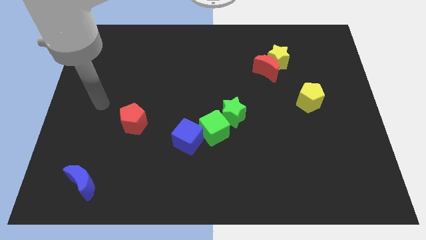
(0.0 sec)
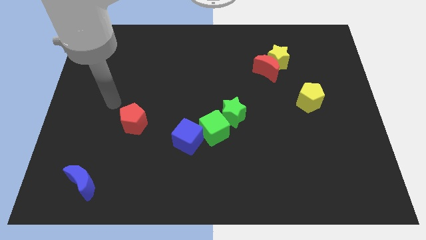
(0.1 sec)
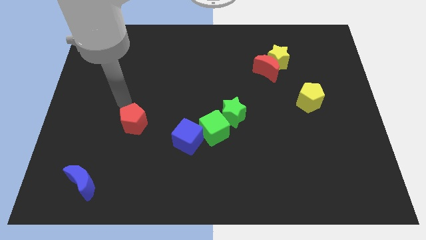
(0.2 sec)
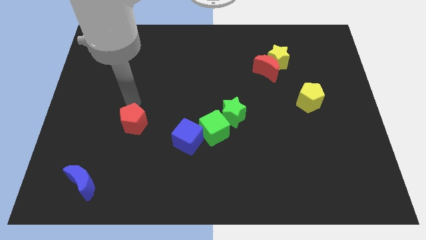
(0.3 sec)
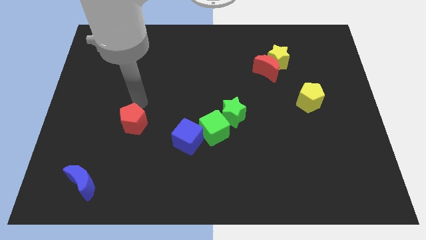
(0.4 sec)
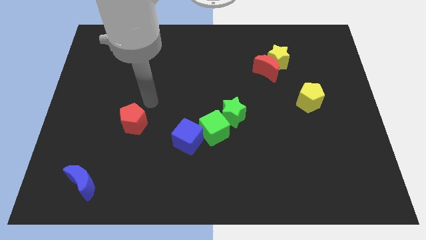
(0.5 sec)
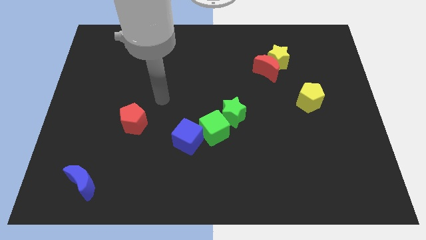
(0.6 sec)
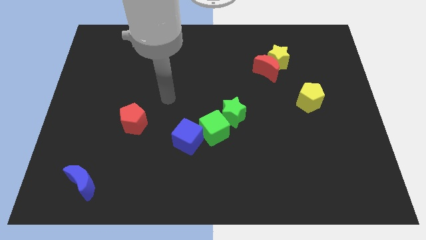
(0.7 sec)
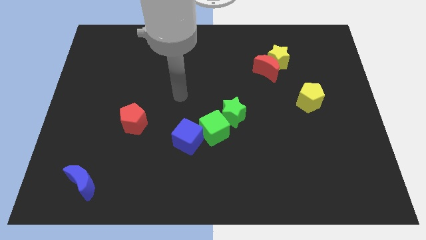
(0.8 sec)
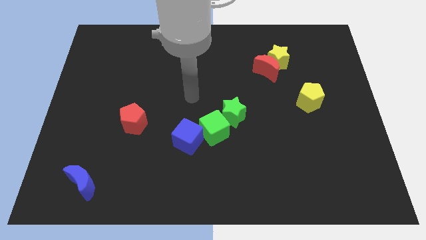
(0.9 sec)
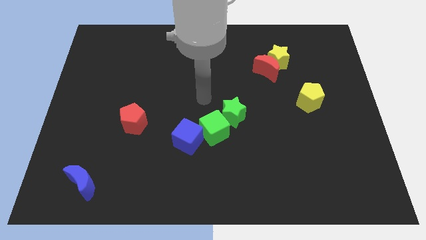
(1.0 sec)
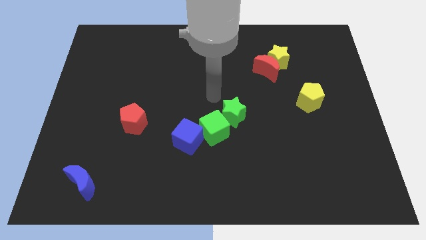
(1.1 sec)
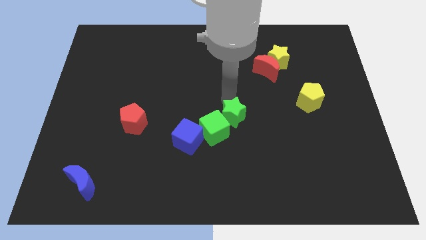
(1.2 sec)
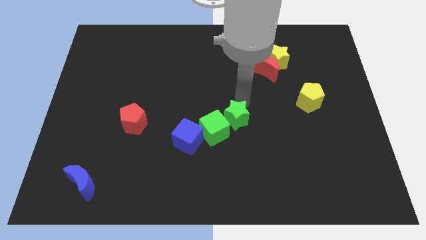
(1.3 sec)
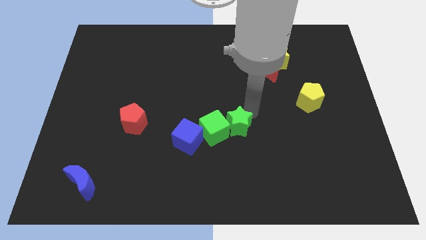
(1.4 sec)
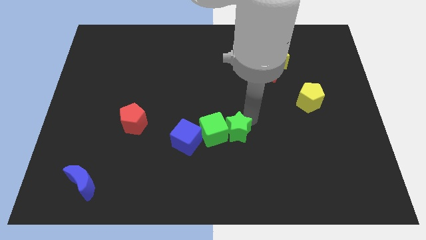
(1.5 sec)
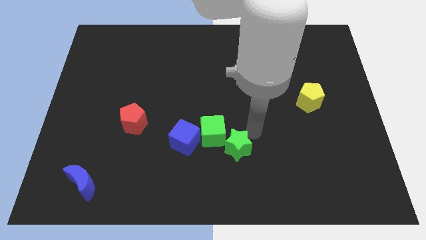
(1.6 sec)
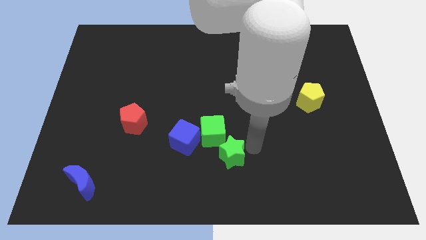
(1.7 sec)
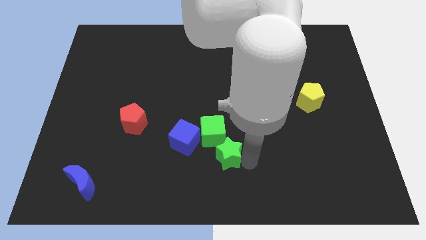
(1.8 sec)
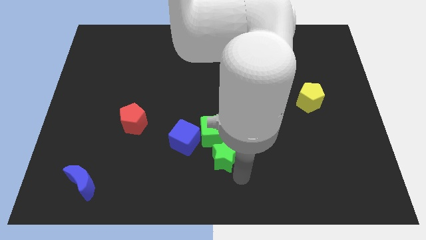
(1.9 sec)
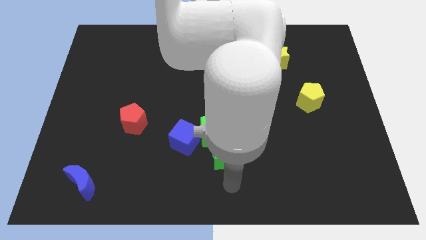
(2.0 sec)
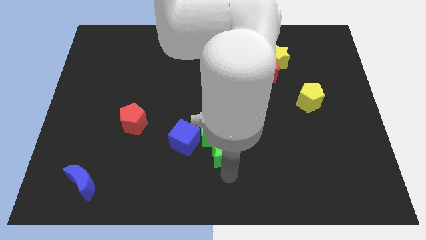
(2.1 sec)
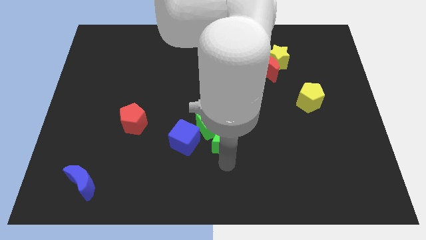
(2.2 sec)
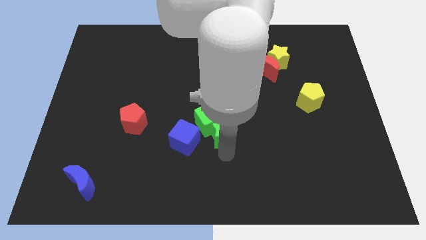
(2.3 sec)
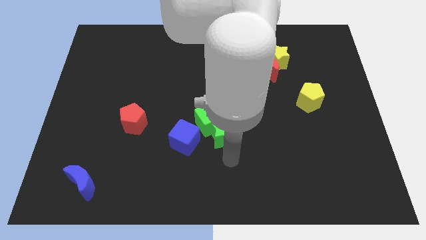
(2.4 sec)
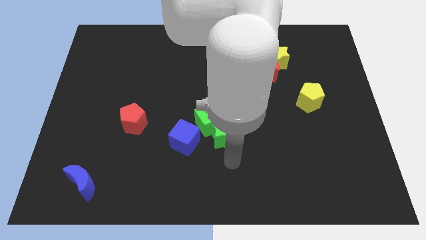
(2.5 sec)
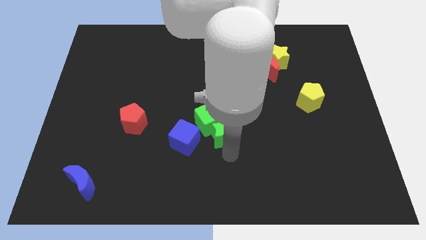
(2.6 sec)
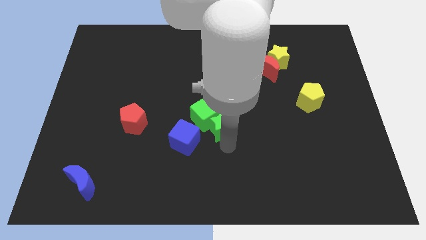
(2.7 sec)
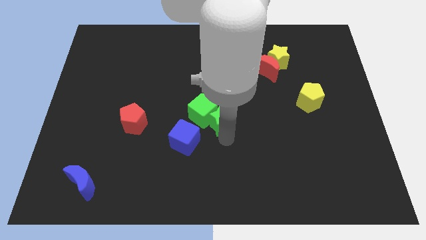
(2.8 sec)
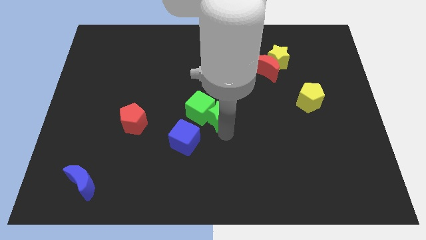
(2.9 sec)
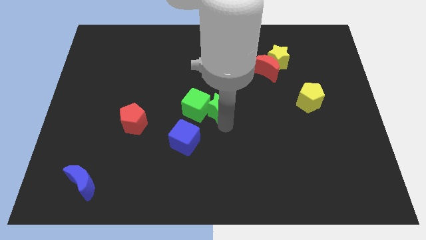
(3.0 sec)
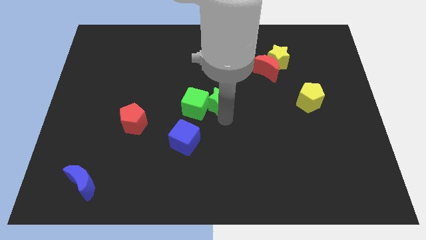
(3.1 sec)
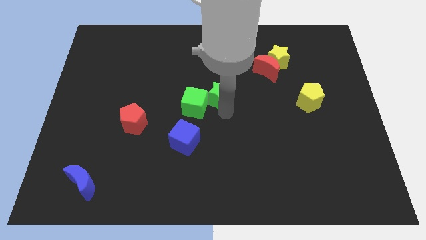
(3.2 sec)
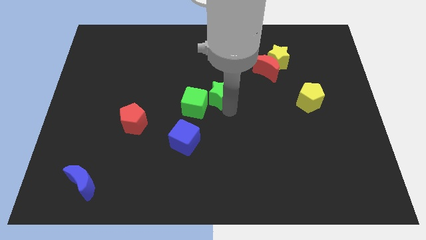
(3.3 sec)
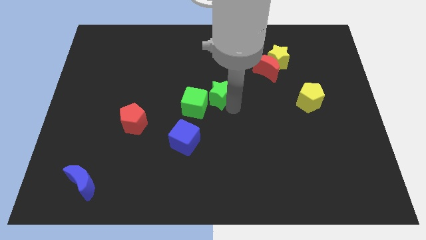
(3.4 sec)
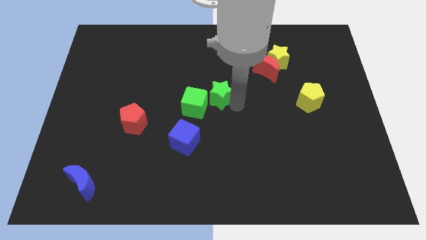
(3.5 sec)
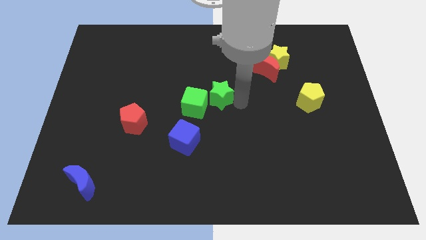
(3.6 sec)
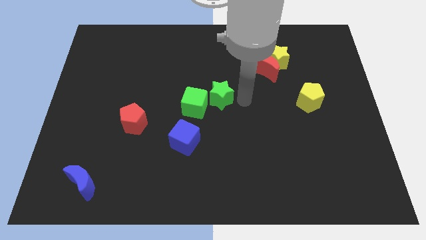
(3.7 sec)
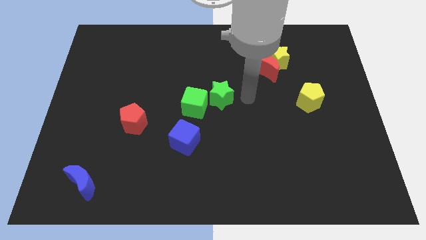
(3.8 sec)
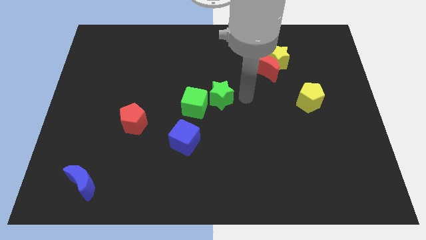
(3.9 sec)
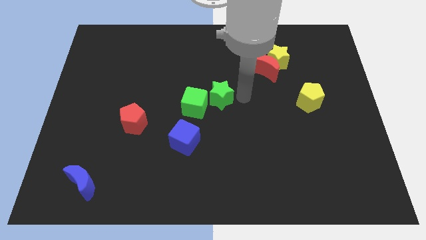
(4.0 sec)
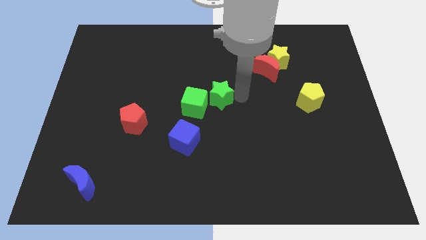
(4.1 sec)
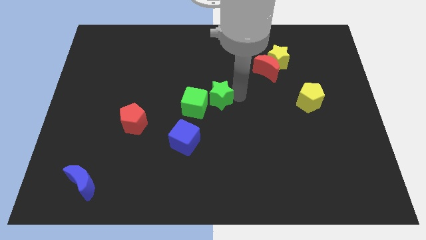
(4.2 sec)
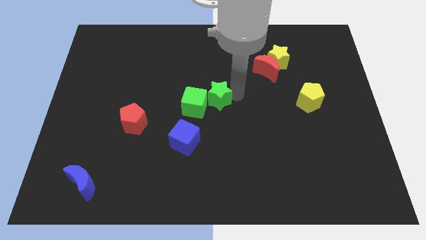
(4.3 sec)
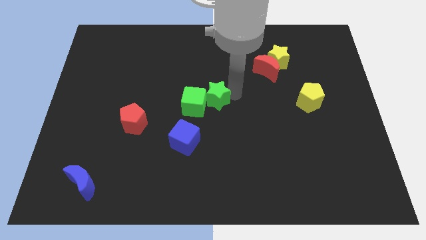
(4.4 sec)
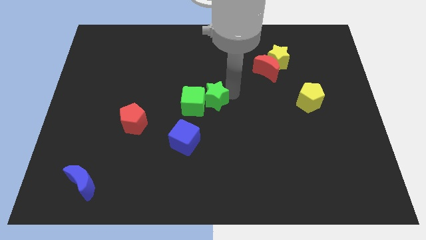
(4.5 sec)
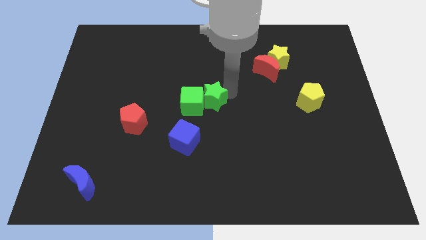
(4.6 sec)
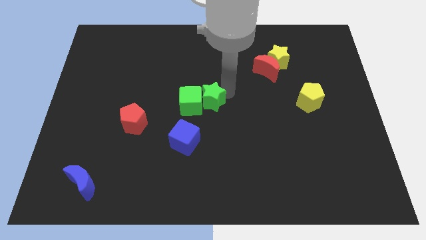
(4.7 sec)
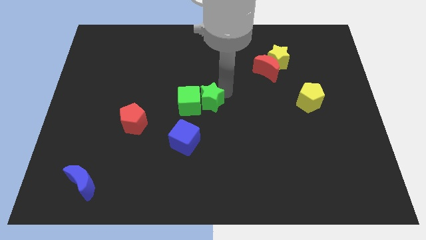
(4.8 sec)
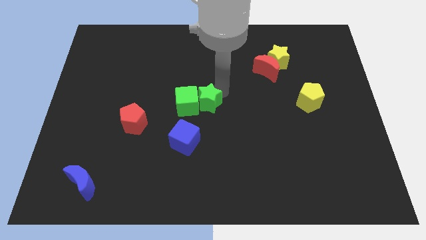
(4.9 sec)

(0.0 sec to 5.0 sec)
slide the green star up and then left slightly

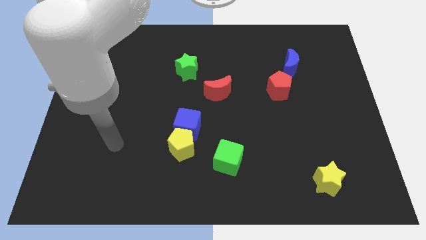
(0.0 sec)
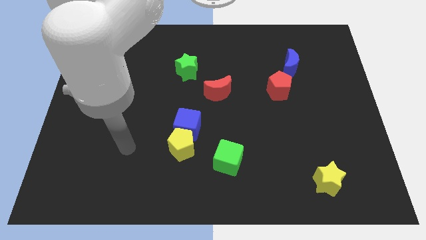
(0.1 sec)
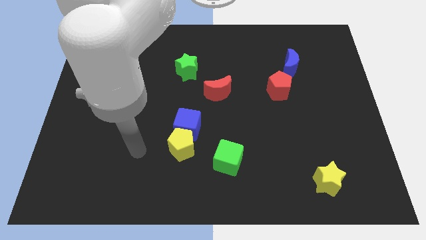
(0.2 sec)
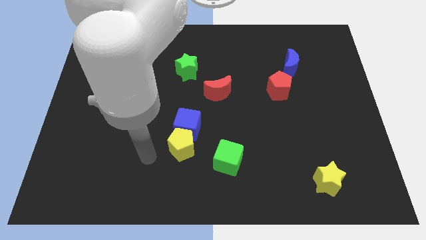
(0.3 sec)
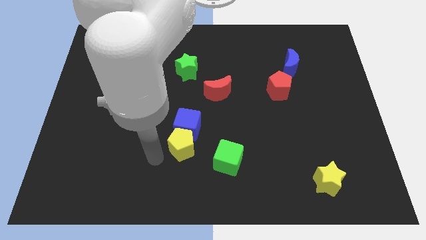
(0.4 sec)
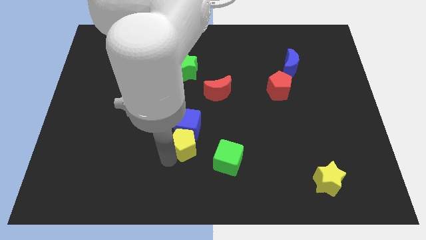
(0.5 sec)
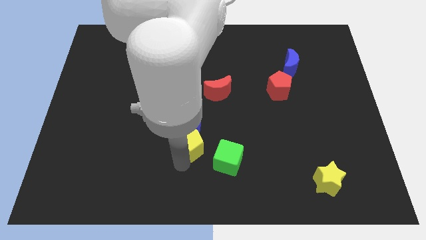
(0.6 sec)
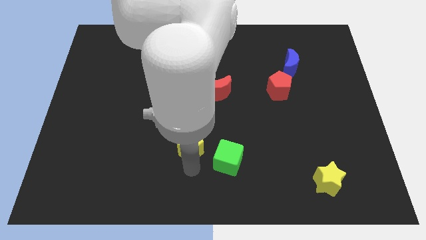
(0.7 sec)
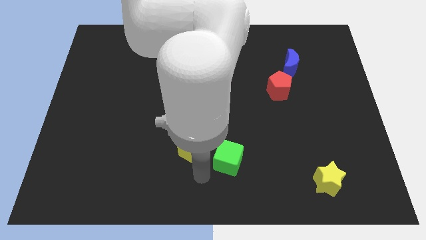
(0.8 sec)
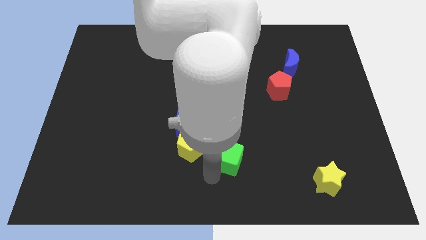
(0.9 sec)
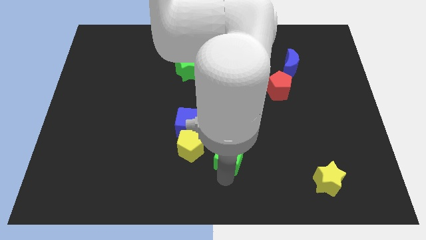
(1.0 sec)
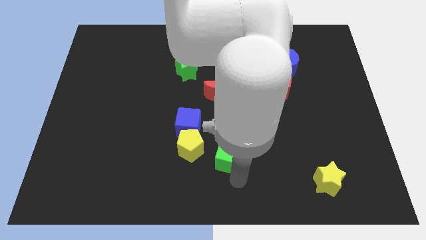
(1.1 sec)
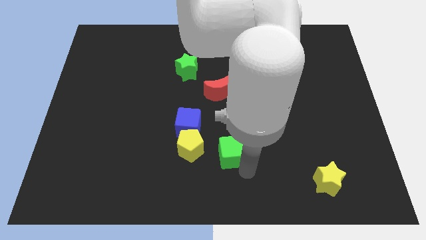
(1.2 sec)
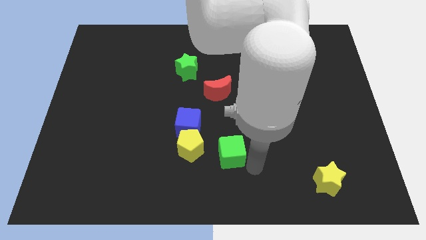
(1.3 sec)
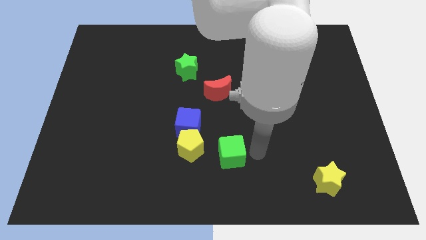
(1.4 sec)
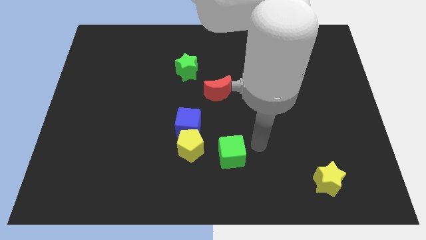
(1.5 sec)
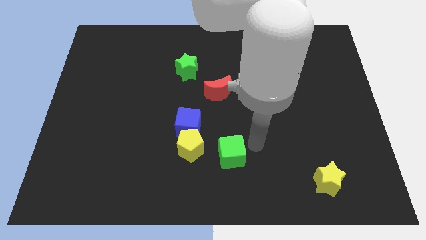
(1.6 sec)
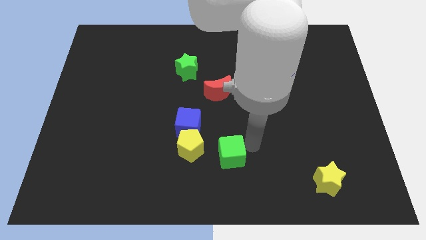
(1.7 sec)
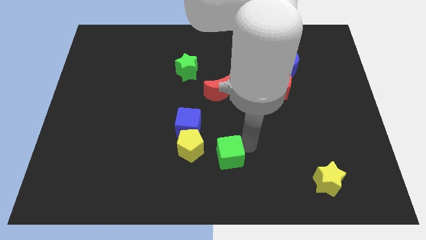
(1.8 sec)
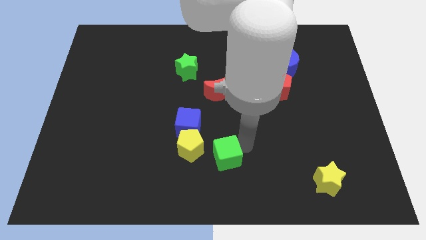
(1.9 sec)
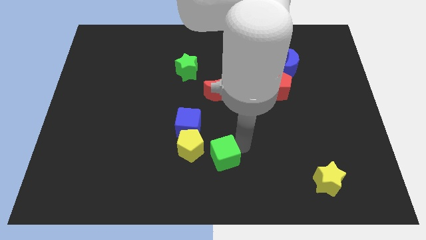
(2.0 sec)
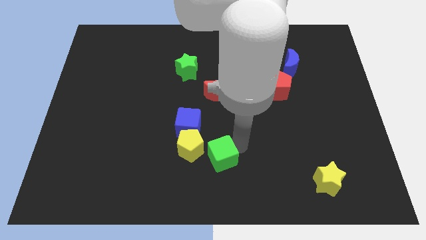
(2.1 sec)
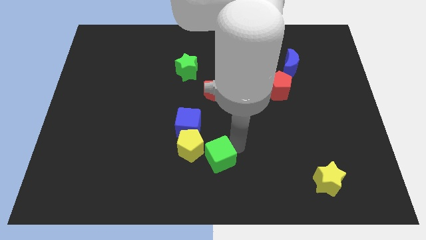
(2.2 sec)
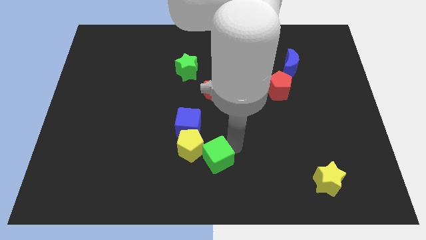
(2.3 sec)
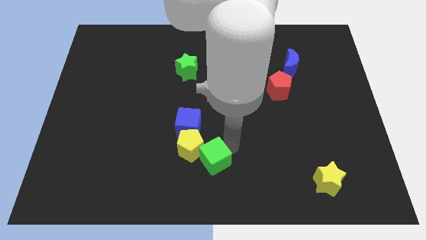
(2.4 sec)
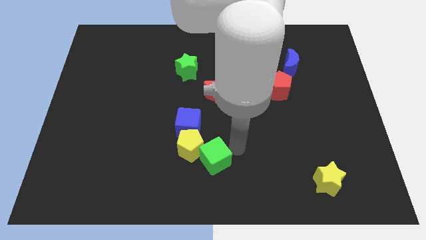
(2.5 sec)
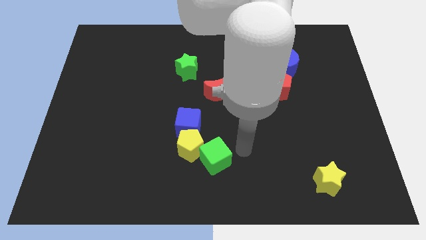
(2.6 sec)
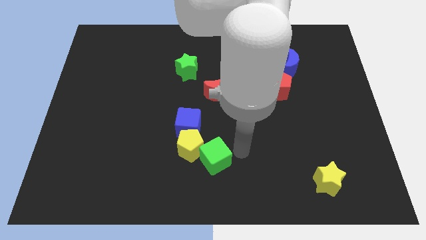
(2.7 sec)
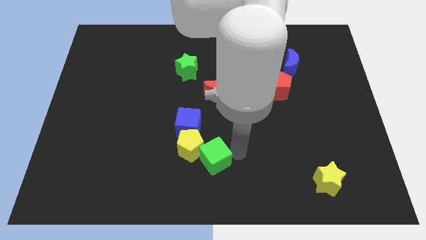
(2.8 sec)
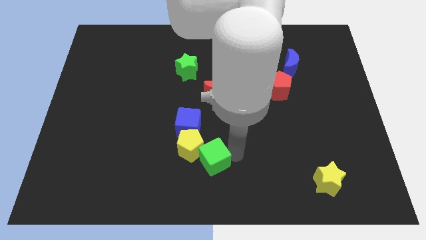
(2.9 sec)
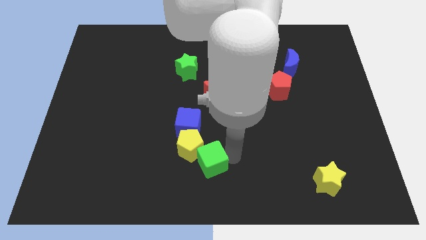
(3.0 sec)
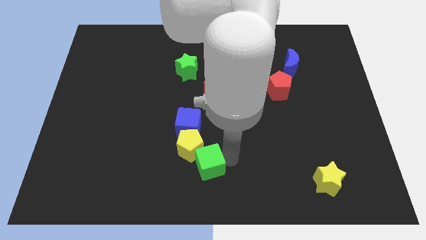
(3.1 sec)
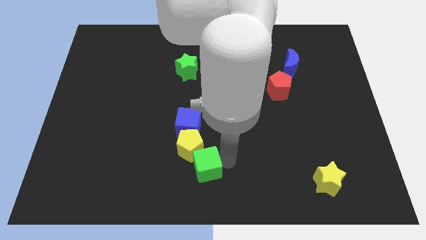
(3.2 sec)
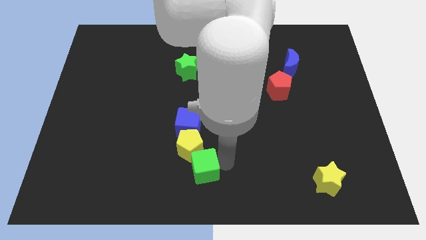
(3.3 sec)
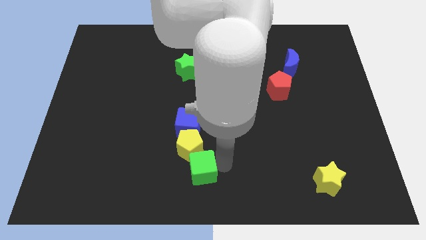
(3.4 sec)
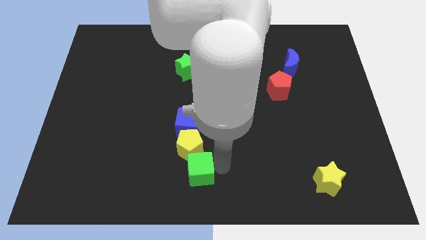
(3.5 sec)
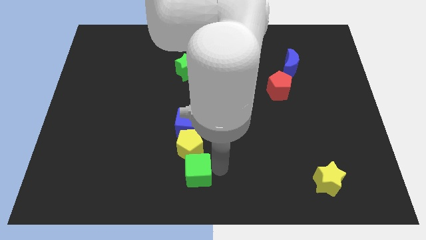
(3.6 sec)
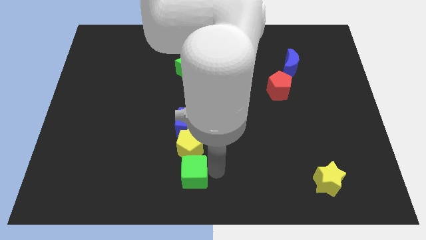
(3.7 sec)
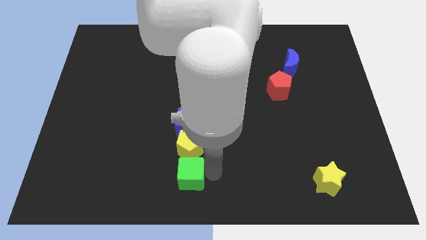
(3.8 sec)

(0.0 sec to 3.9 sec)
slide the green cube to the left somewhat
